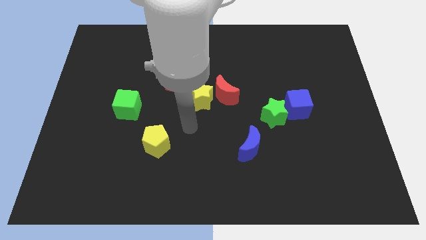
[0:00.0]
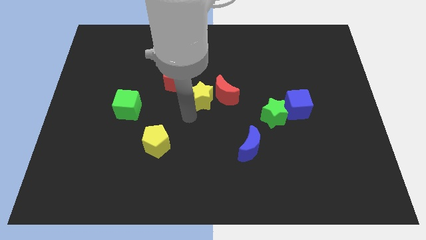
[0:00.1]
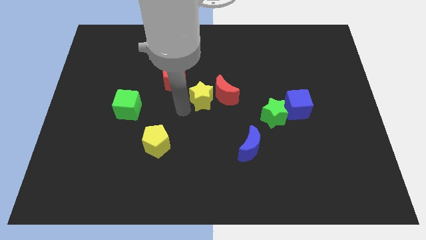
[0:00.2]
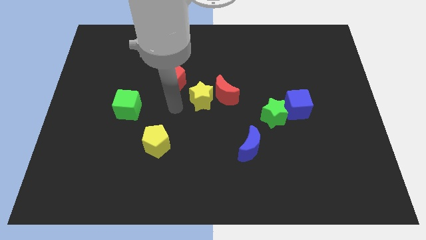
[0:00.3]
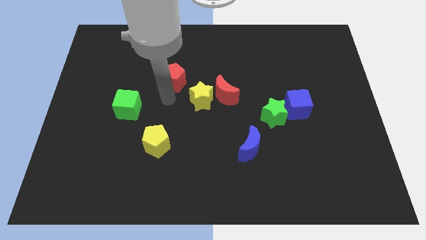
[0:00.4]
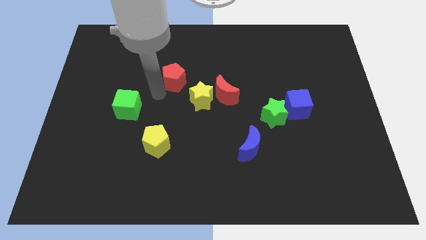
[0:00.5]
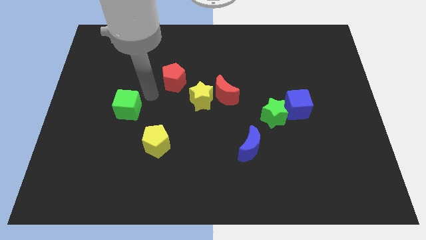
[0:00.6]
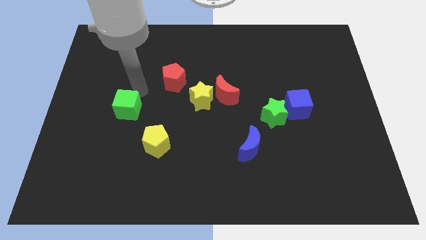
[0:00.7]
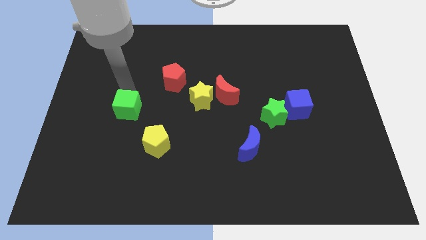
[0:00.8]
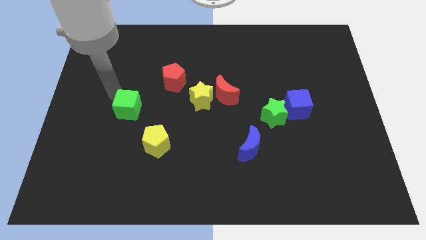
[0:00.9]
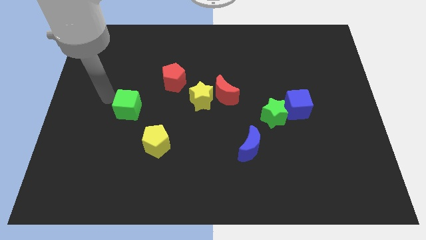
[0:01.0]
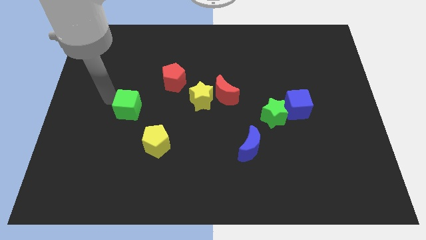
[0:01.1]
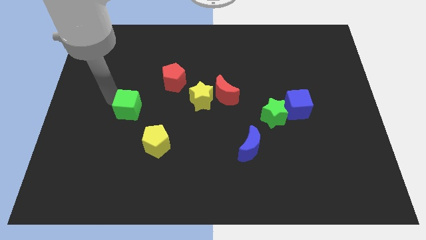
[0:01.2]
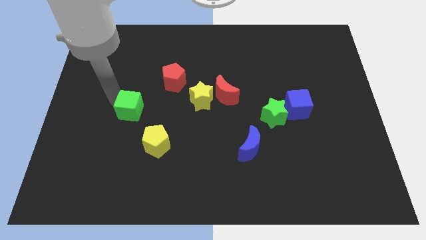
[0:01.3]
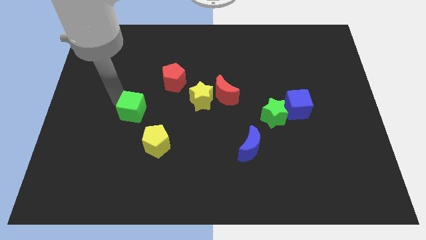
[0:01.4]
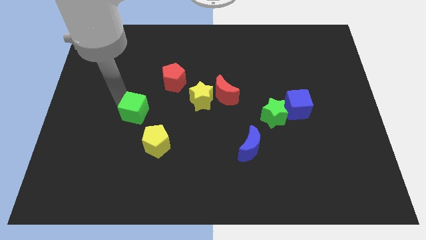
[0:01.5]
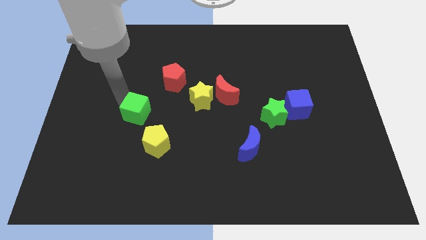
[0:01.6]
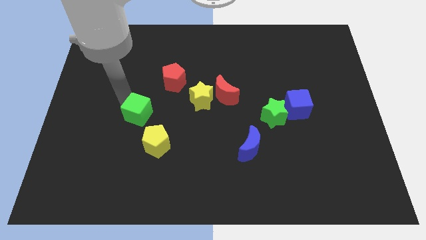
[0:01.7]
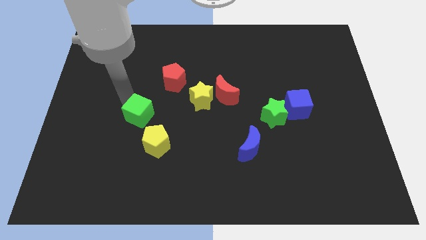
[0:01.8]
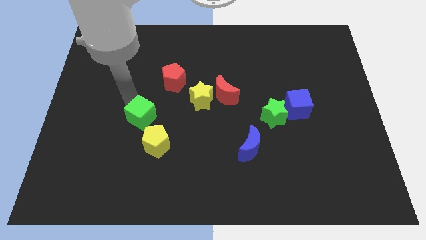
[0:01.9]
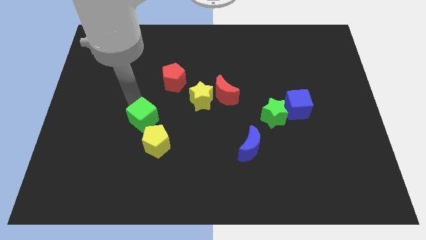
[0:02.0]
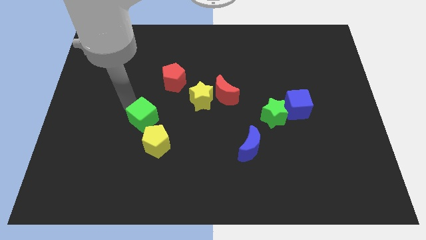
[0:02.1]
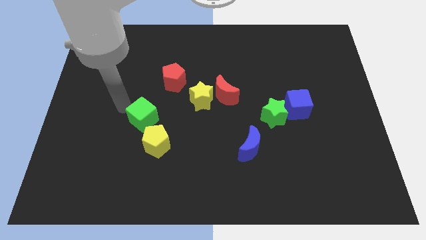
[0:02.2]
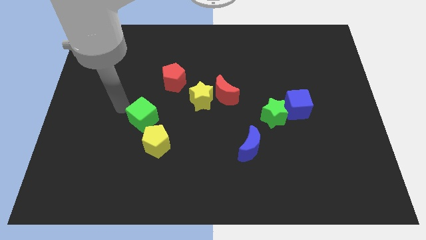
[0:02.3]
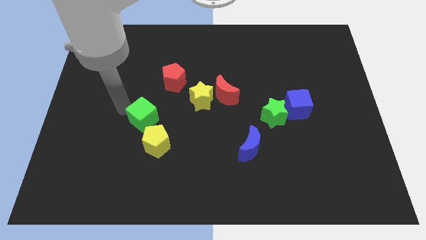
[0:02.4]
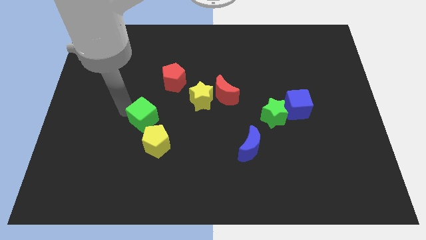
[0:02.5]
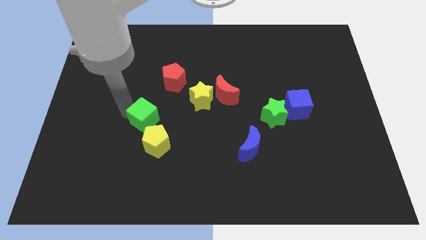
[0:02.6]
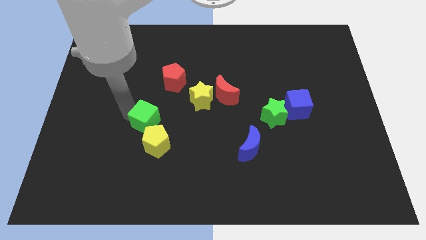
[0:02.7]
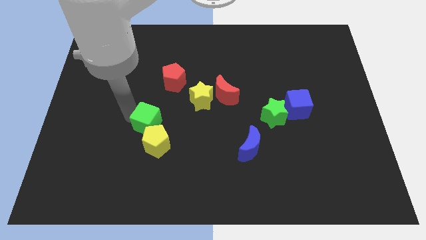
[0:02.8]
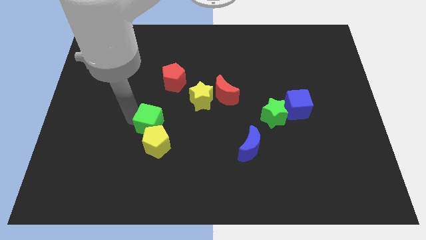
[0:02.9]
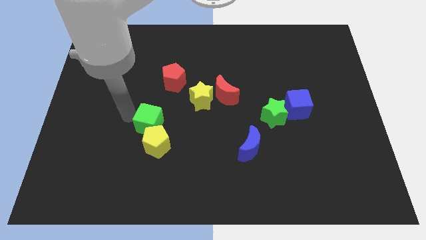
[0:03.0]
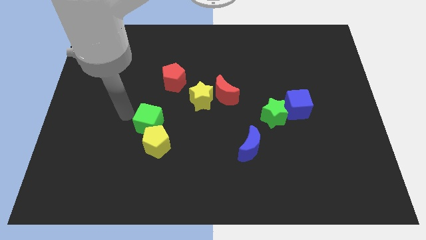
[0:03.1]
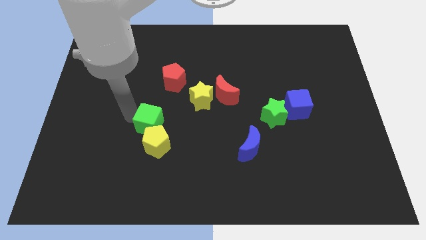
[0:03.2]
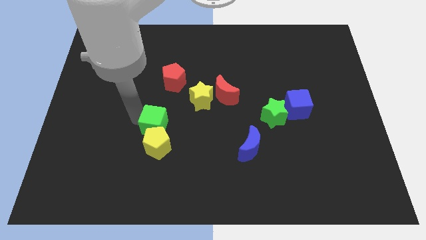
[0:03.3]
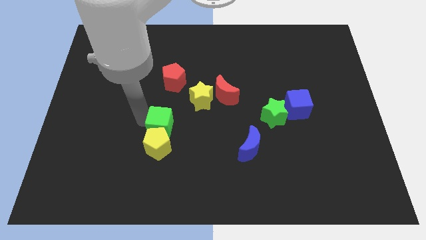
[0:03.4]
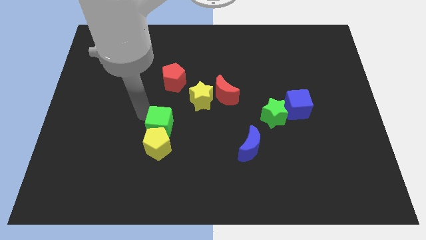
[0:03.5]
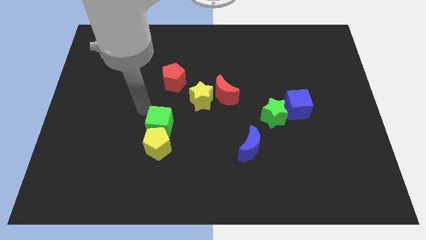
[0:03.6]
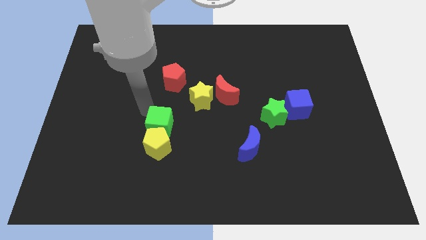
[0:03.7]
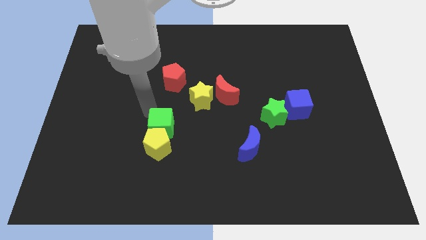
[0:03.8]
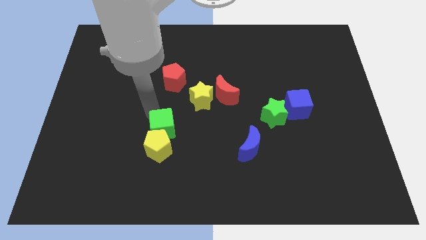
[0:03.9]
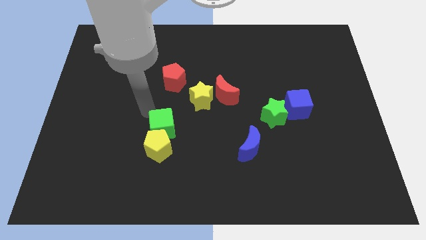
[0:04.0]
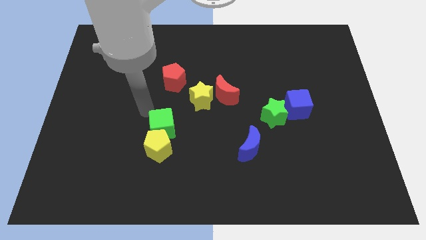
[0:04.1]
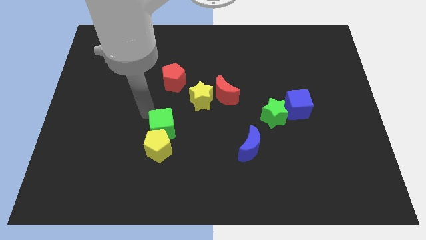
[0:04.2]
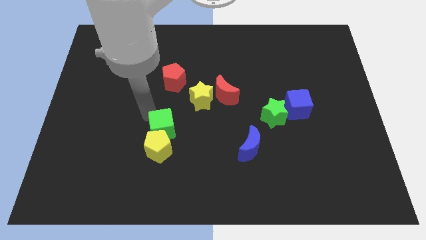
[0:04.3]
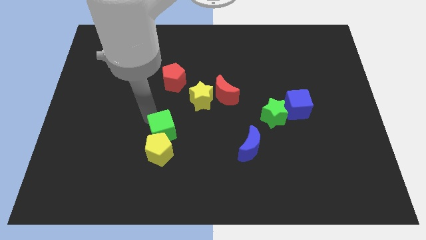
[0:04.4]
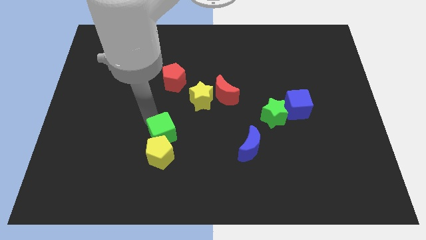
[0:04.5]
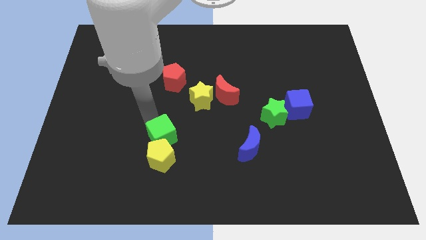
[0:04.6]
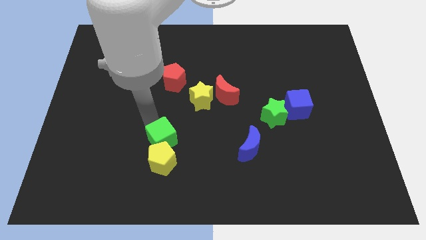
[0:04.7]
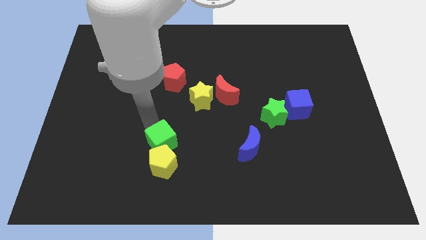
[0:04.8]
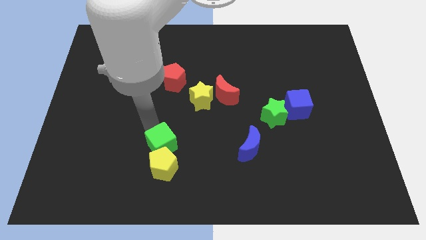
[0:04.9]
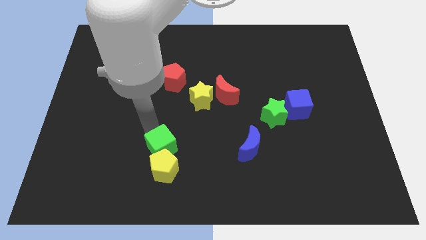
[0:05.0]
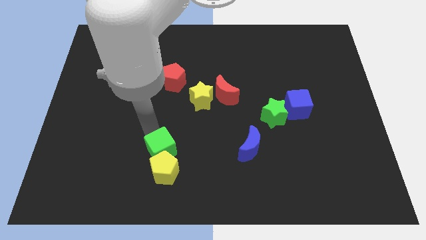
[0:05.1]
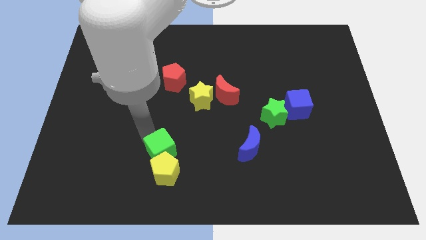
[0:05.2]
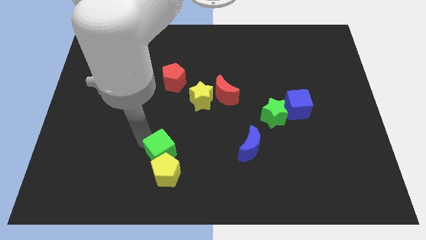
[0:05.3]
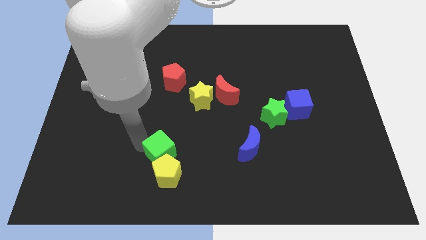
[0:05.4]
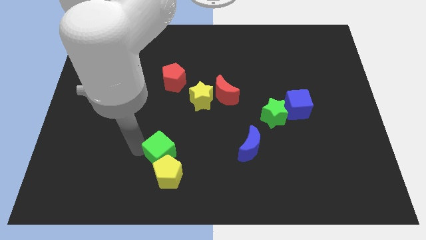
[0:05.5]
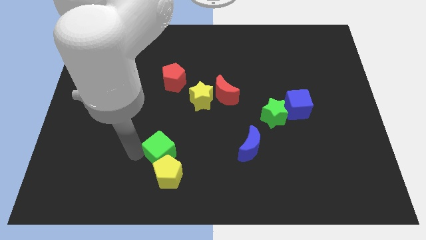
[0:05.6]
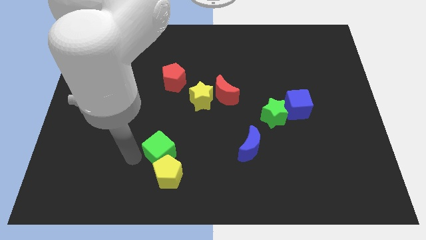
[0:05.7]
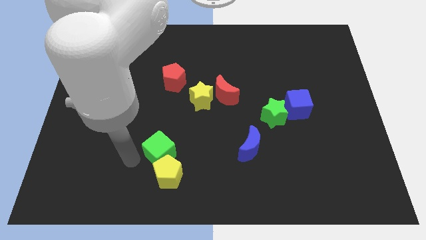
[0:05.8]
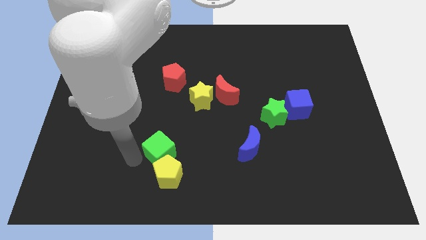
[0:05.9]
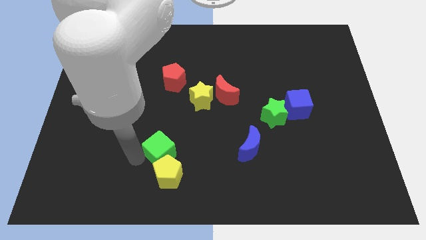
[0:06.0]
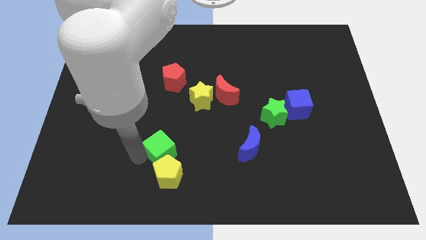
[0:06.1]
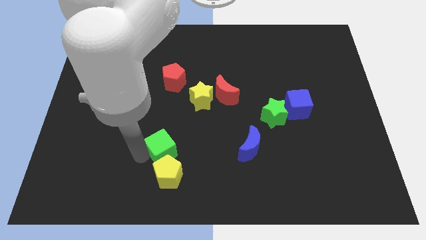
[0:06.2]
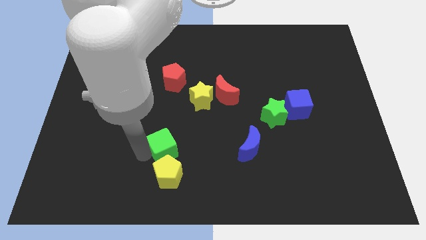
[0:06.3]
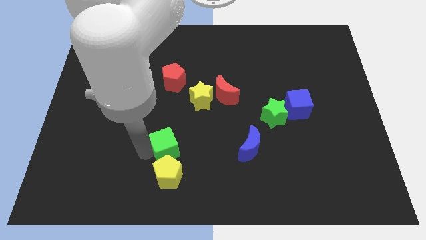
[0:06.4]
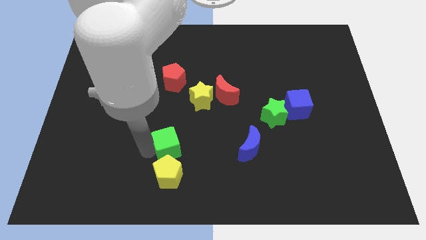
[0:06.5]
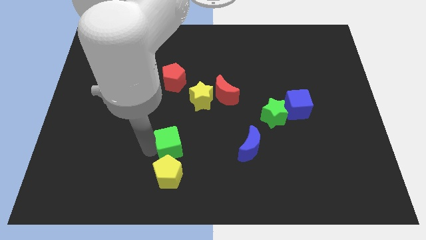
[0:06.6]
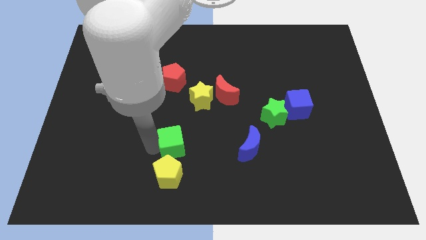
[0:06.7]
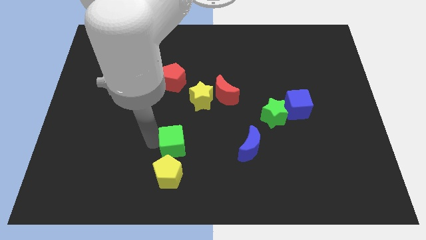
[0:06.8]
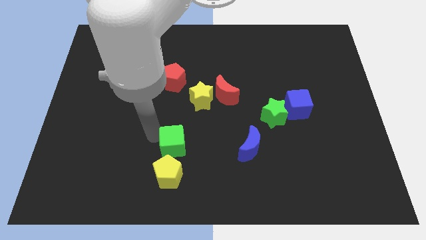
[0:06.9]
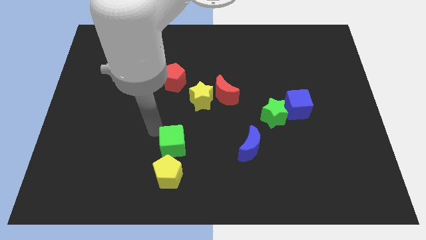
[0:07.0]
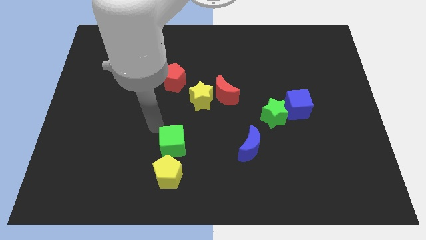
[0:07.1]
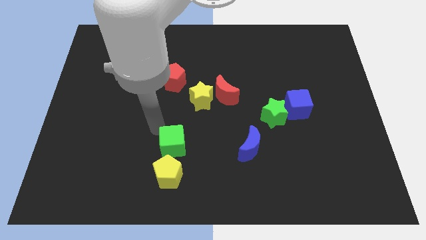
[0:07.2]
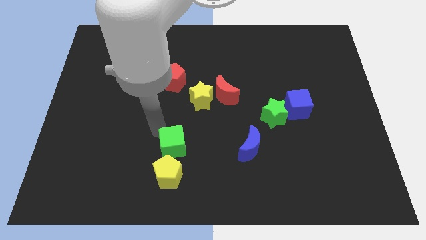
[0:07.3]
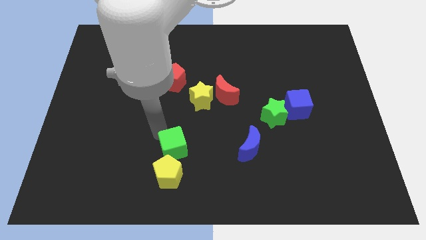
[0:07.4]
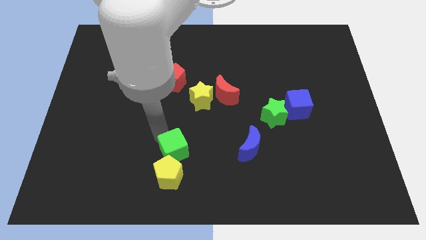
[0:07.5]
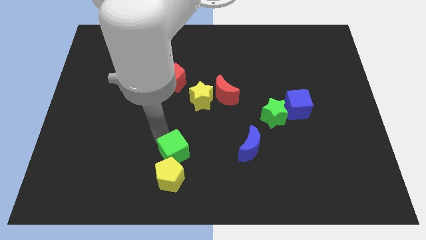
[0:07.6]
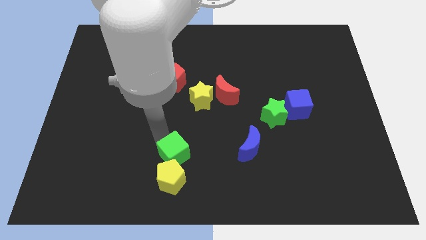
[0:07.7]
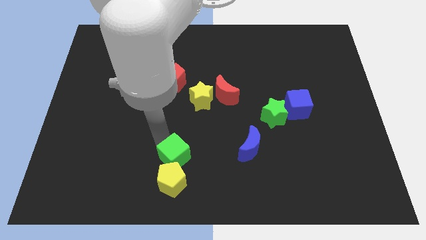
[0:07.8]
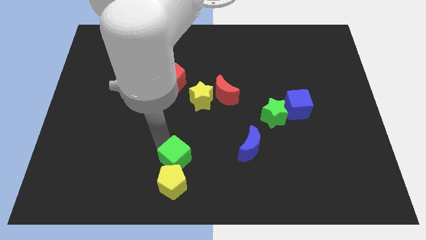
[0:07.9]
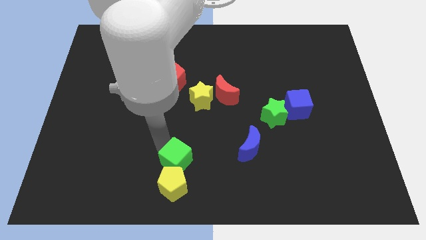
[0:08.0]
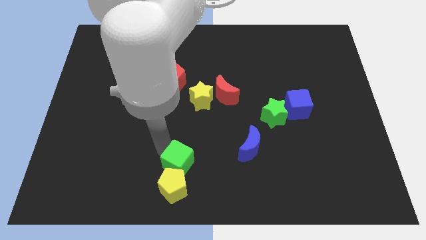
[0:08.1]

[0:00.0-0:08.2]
move the green cube to the bottom side
